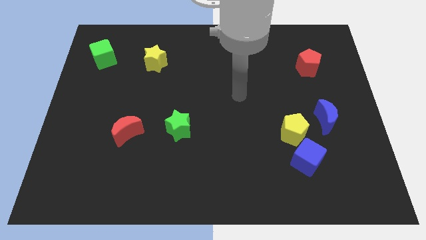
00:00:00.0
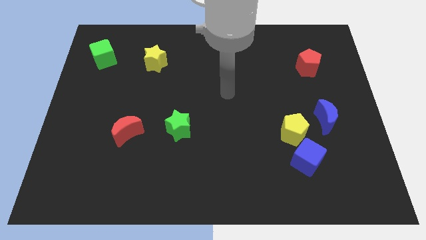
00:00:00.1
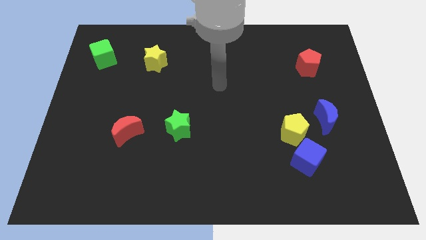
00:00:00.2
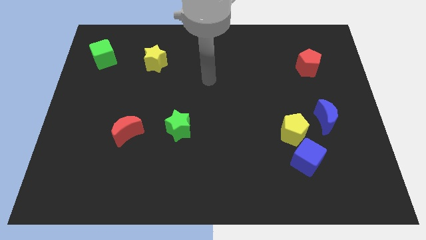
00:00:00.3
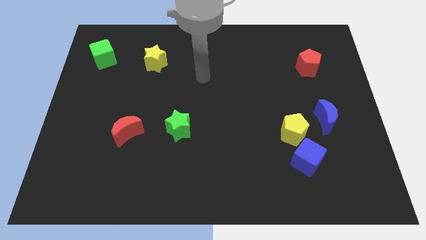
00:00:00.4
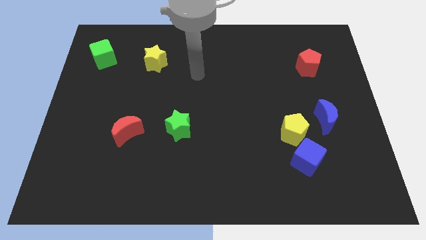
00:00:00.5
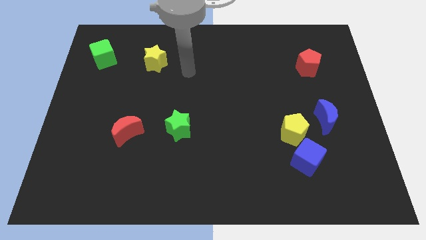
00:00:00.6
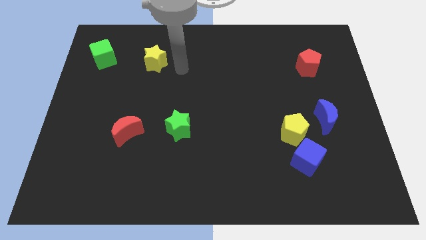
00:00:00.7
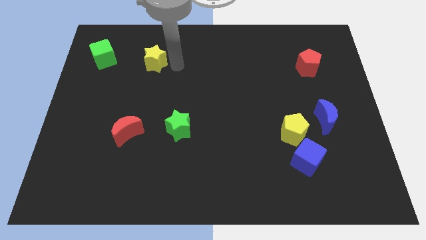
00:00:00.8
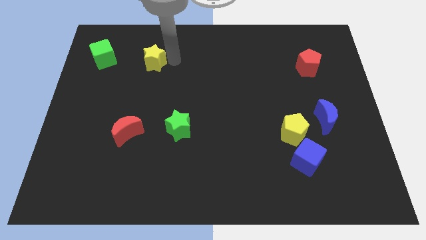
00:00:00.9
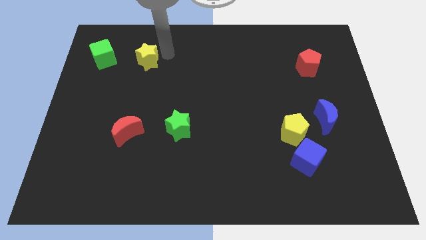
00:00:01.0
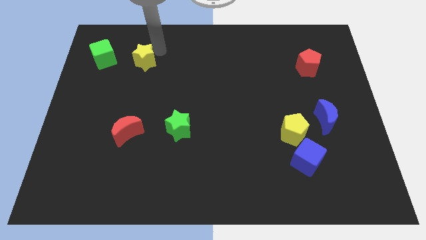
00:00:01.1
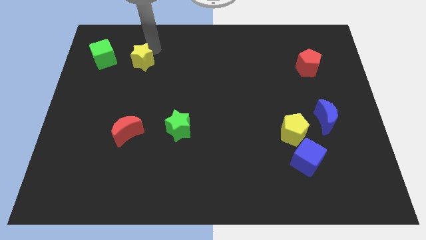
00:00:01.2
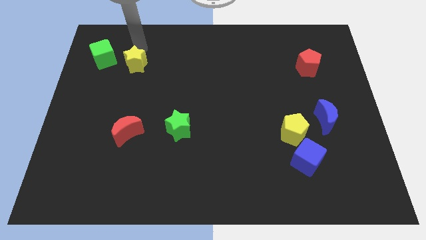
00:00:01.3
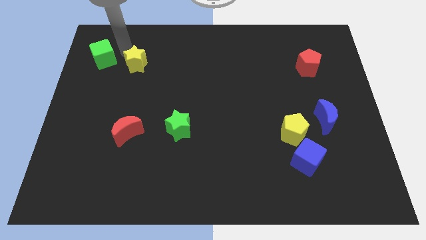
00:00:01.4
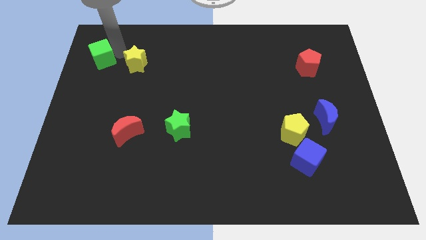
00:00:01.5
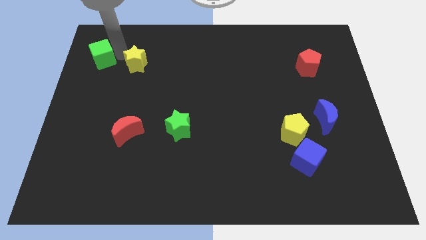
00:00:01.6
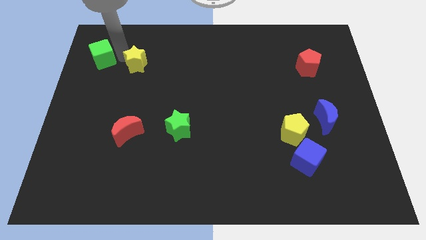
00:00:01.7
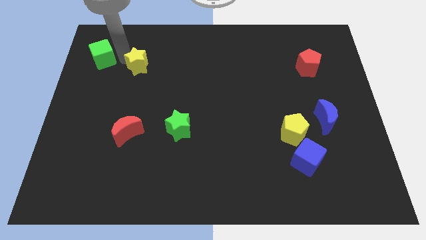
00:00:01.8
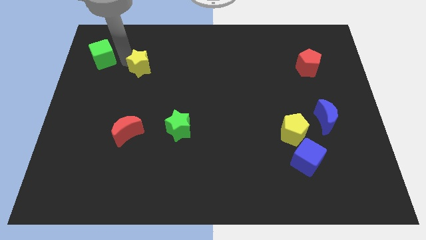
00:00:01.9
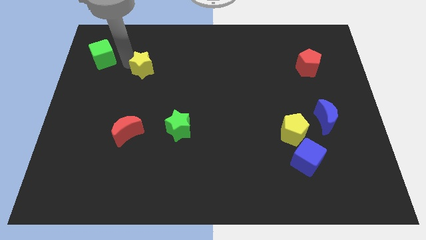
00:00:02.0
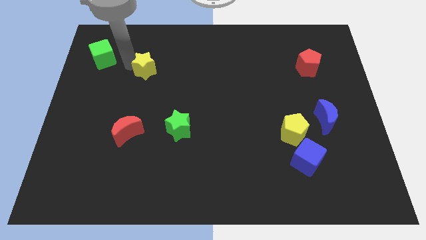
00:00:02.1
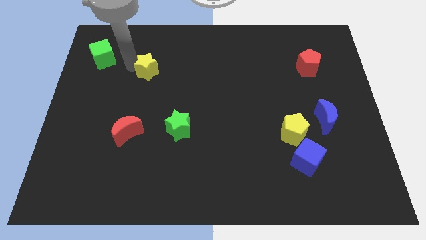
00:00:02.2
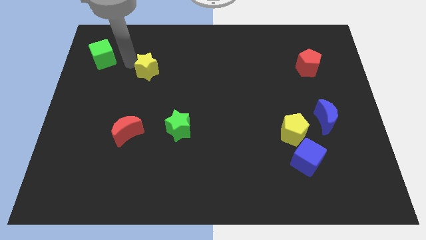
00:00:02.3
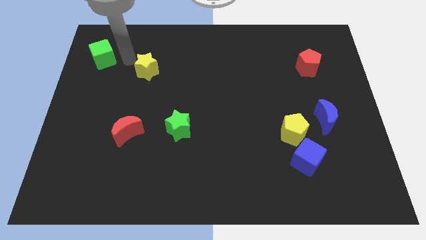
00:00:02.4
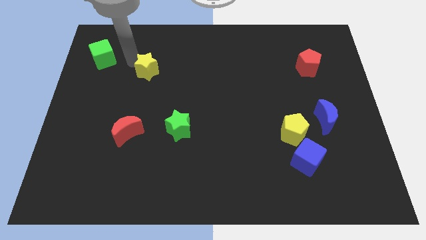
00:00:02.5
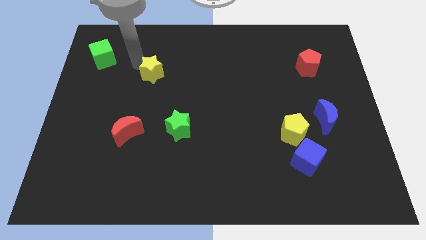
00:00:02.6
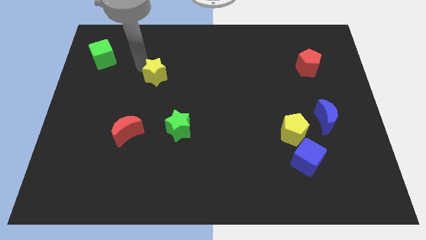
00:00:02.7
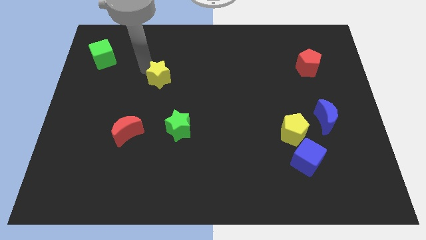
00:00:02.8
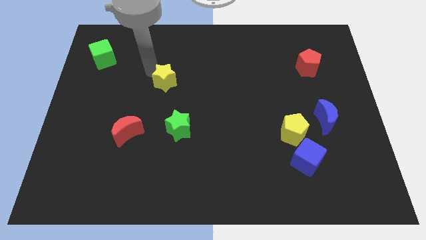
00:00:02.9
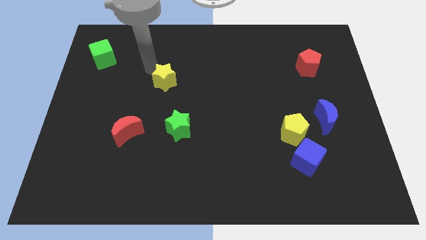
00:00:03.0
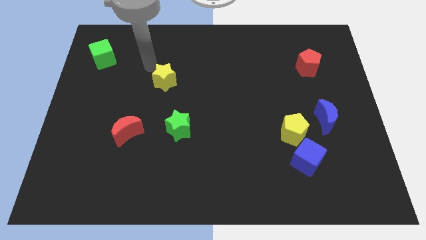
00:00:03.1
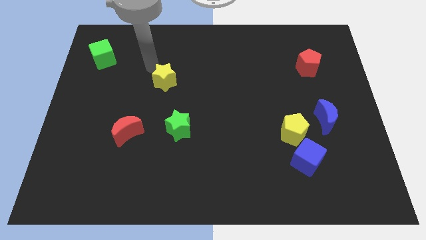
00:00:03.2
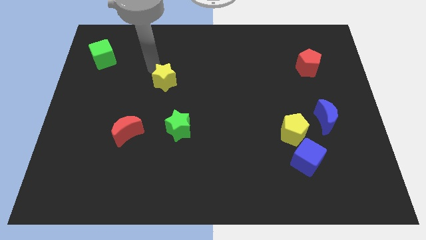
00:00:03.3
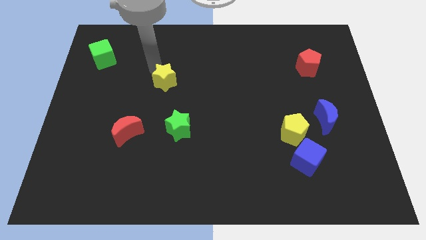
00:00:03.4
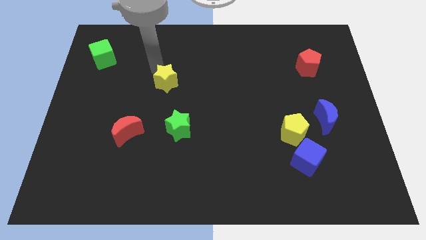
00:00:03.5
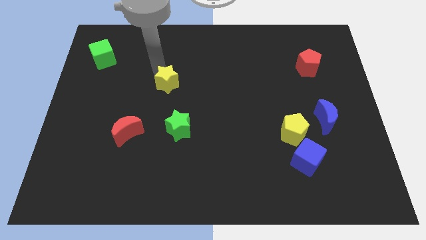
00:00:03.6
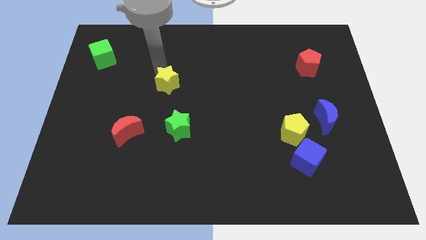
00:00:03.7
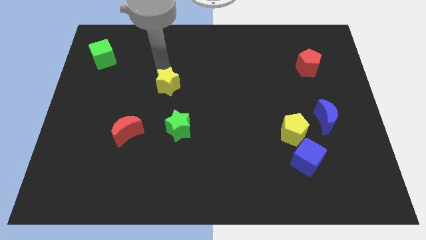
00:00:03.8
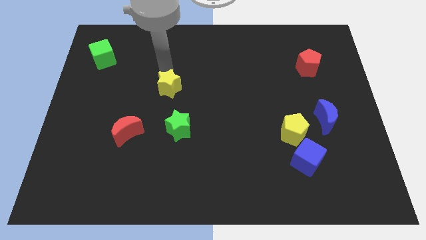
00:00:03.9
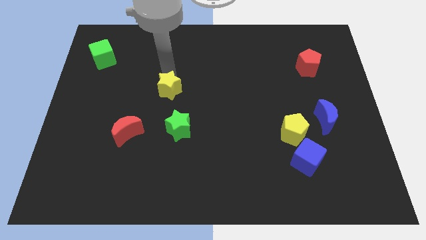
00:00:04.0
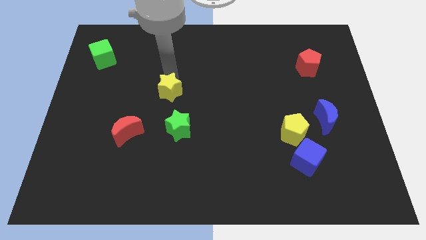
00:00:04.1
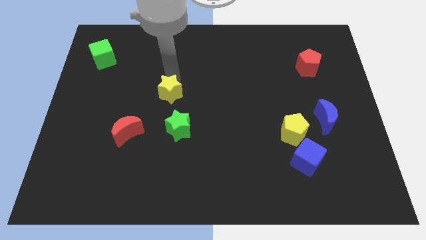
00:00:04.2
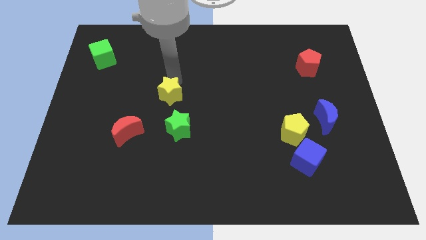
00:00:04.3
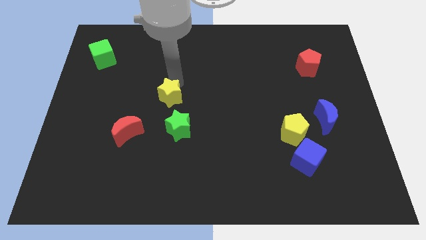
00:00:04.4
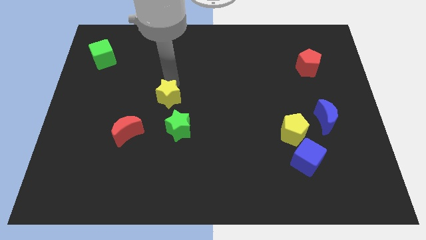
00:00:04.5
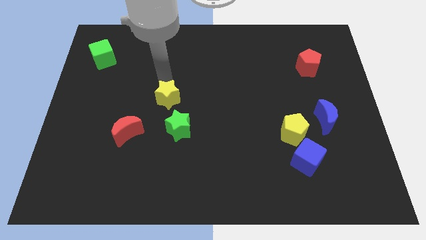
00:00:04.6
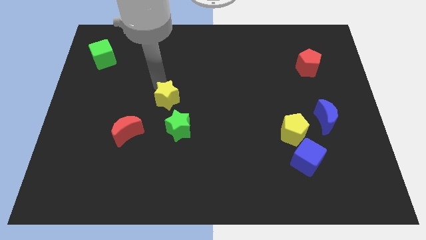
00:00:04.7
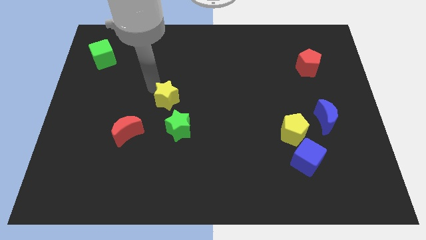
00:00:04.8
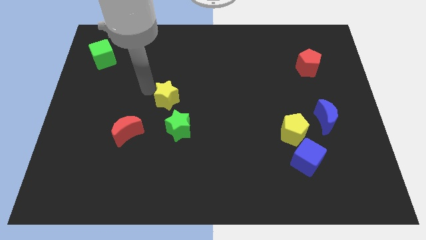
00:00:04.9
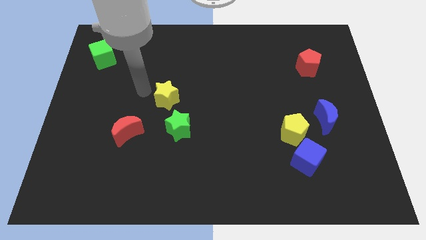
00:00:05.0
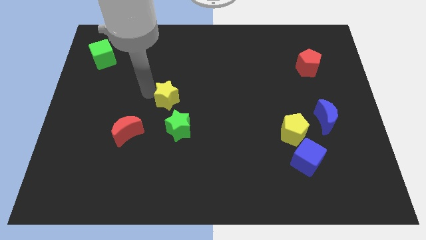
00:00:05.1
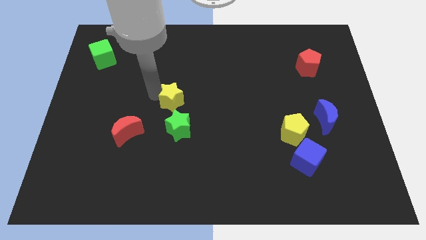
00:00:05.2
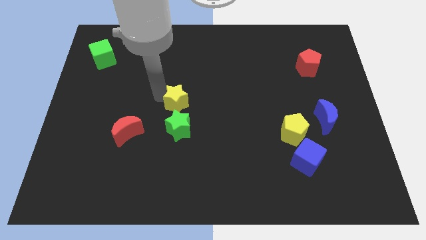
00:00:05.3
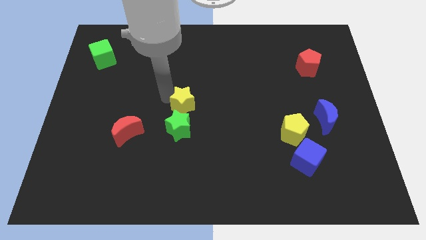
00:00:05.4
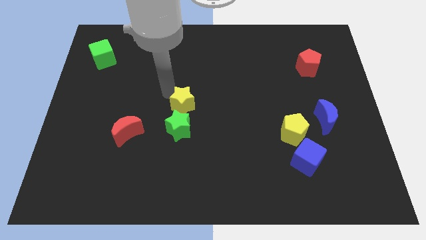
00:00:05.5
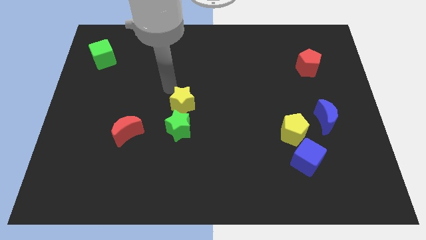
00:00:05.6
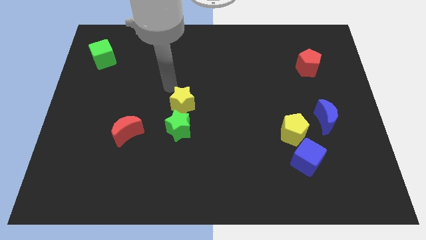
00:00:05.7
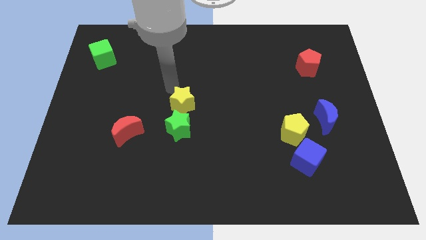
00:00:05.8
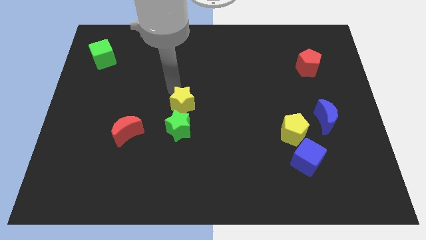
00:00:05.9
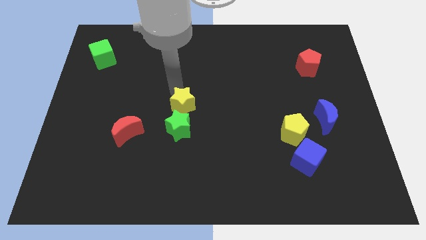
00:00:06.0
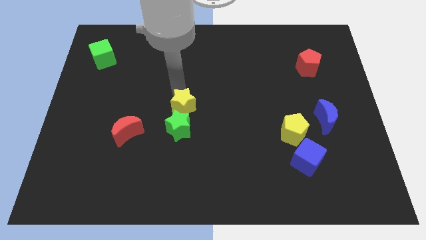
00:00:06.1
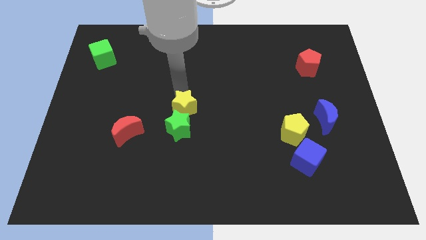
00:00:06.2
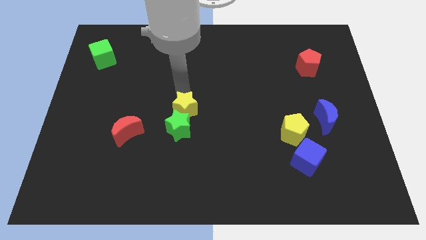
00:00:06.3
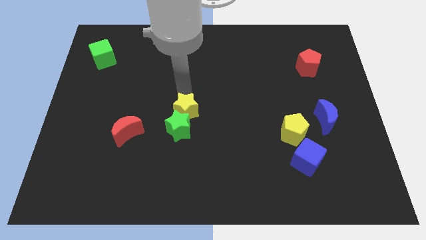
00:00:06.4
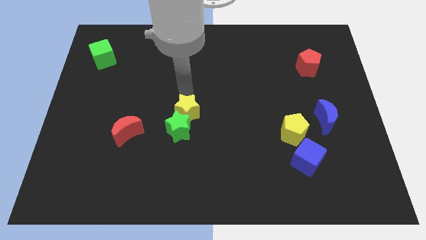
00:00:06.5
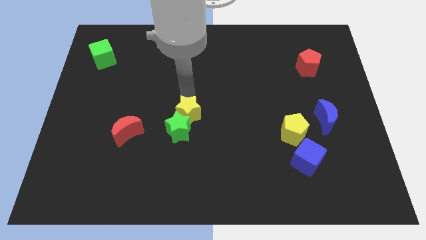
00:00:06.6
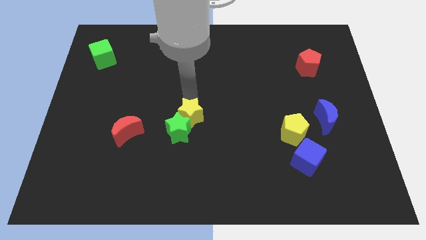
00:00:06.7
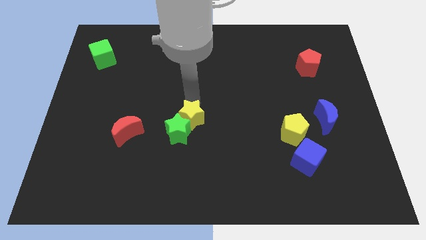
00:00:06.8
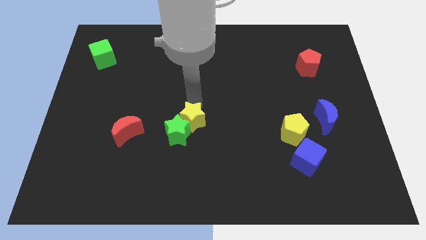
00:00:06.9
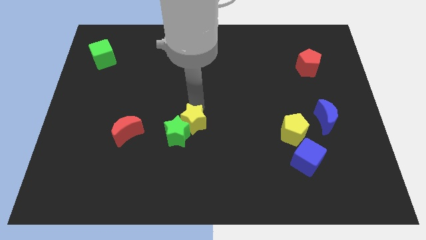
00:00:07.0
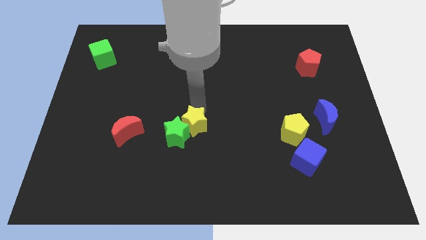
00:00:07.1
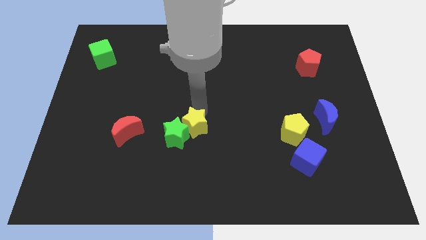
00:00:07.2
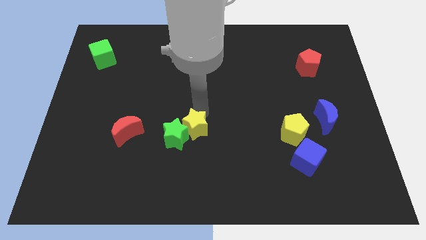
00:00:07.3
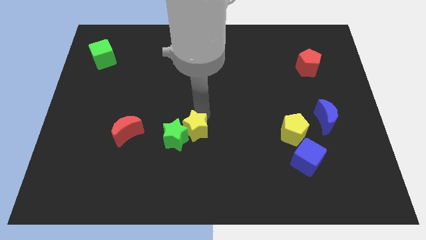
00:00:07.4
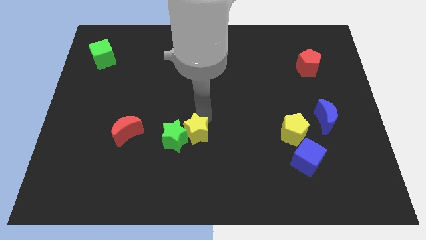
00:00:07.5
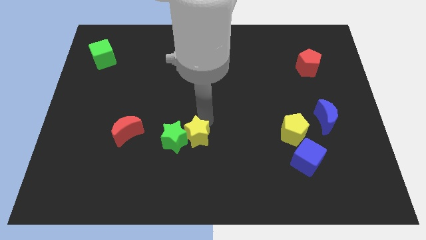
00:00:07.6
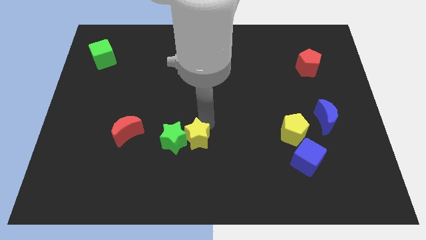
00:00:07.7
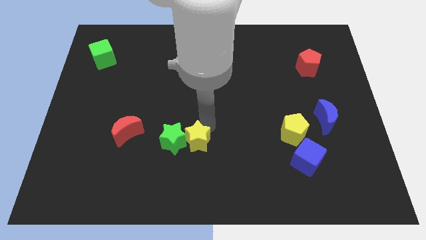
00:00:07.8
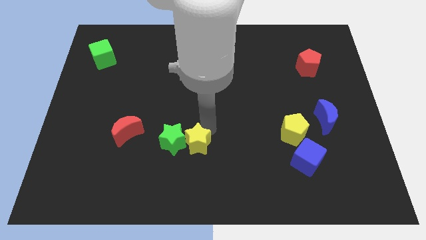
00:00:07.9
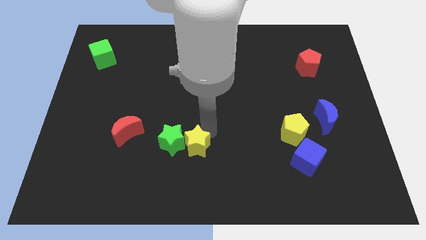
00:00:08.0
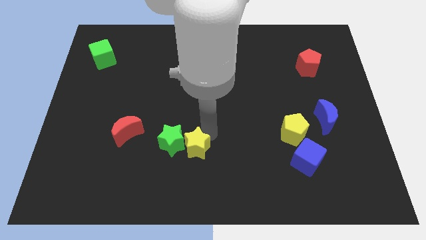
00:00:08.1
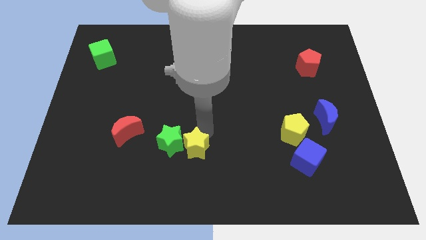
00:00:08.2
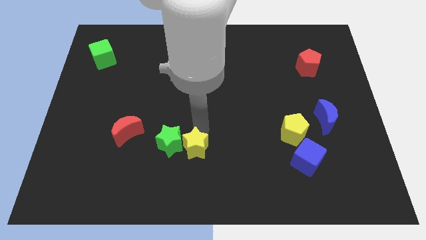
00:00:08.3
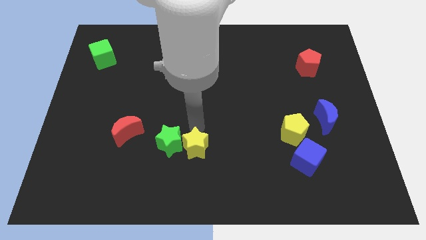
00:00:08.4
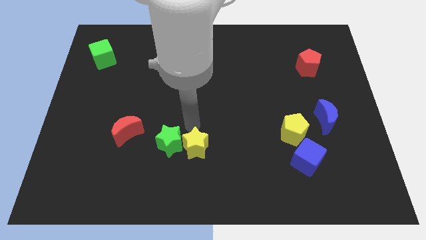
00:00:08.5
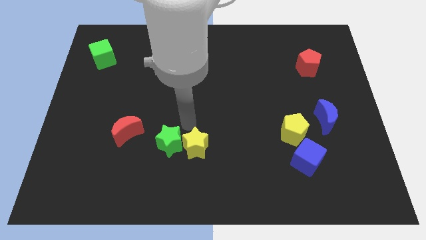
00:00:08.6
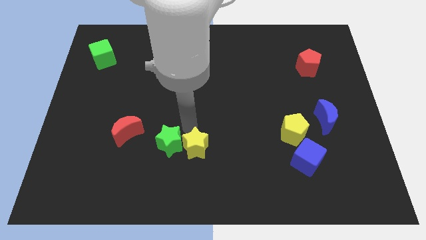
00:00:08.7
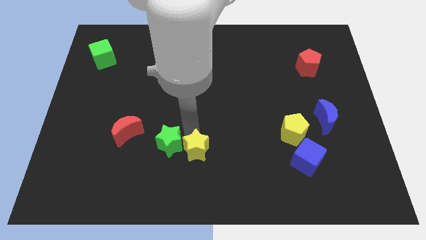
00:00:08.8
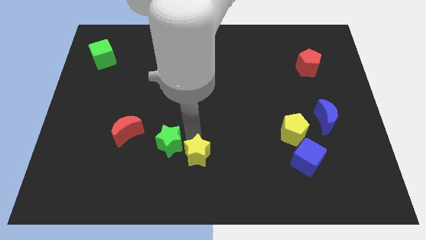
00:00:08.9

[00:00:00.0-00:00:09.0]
put the yellow star to the bottom
